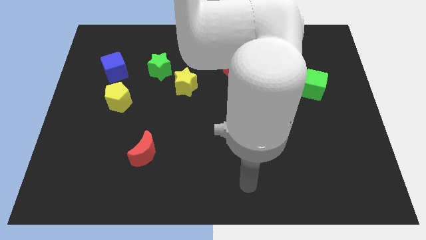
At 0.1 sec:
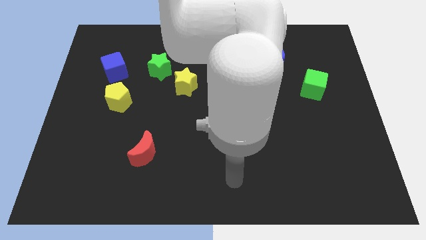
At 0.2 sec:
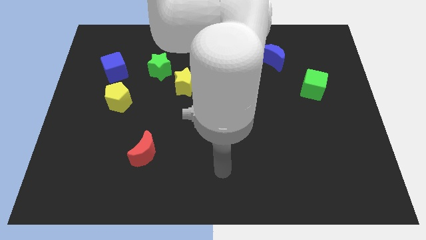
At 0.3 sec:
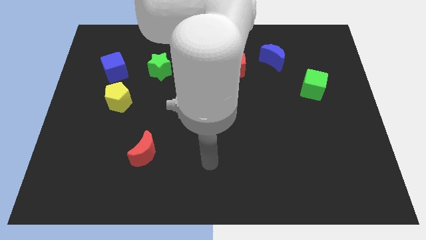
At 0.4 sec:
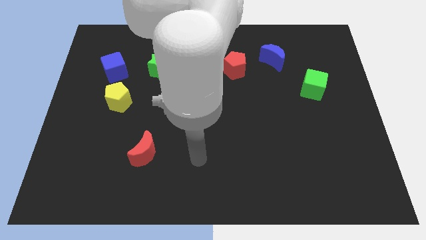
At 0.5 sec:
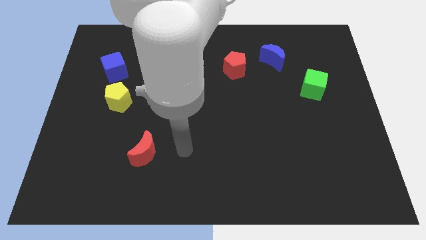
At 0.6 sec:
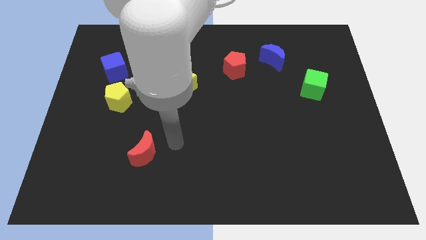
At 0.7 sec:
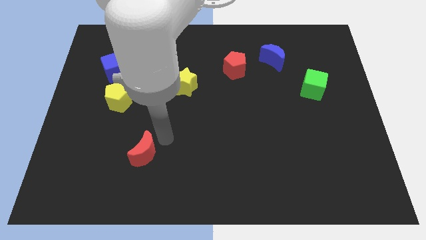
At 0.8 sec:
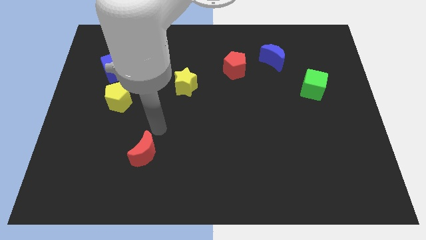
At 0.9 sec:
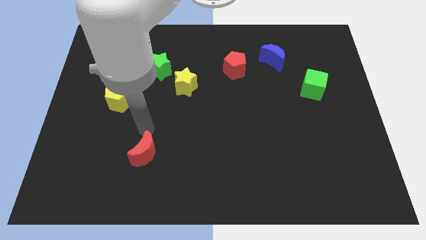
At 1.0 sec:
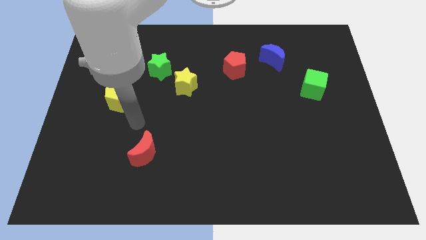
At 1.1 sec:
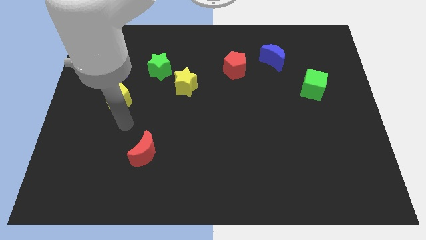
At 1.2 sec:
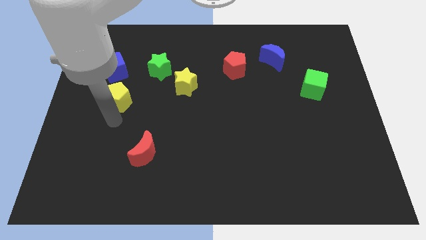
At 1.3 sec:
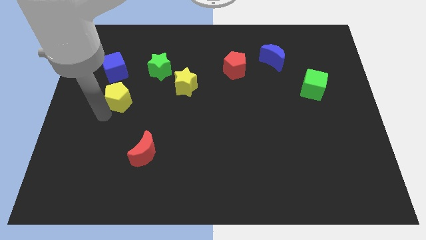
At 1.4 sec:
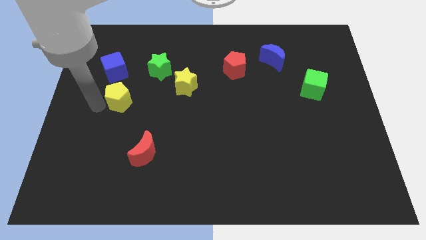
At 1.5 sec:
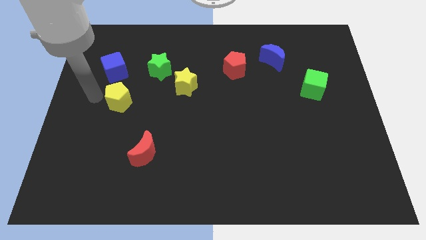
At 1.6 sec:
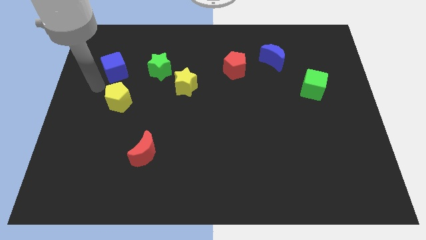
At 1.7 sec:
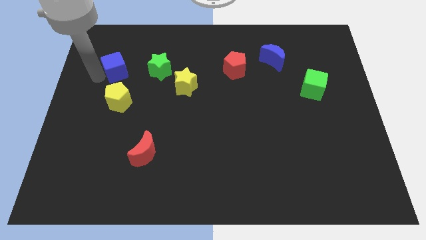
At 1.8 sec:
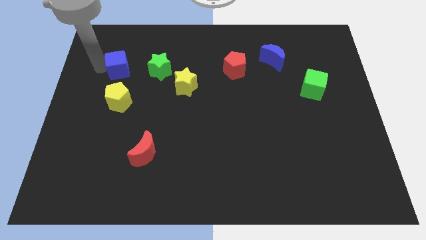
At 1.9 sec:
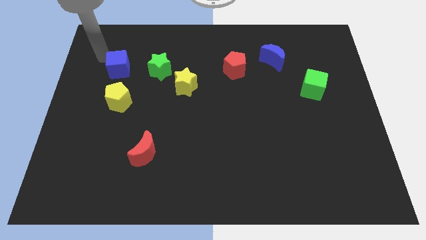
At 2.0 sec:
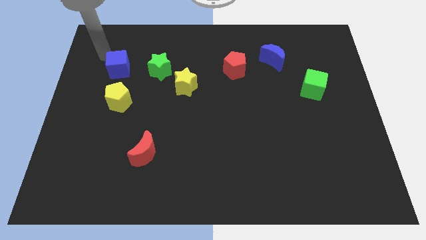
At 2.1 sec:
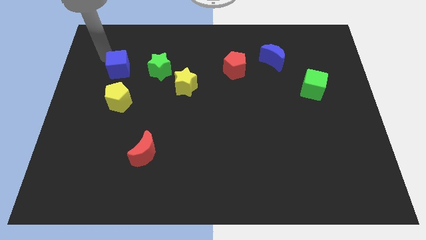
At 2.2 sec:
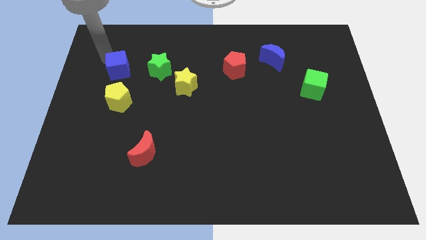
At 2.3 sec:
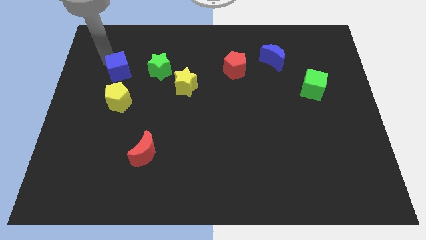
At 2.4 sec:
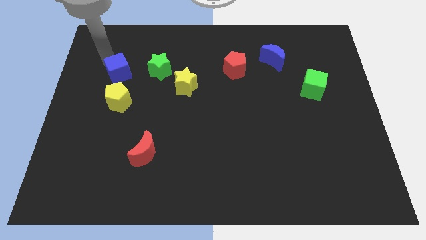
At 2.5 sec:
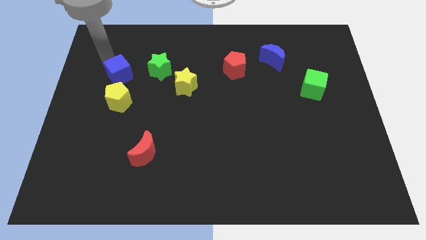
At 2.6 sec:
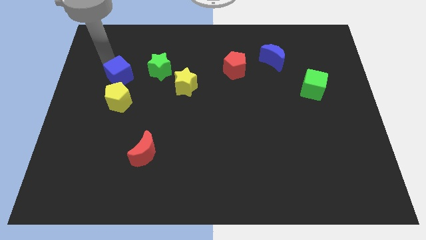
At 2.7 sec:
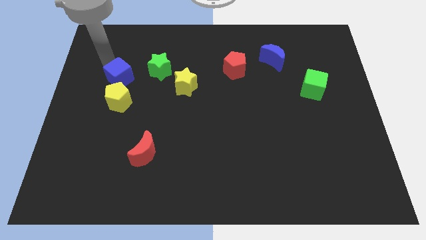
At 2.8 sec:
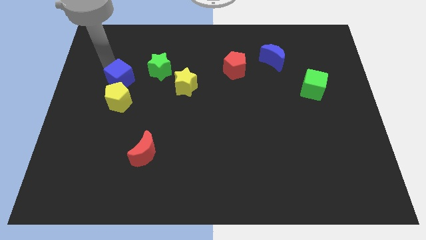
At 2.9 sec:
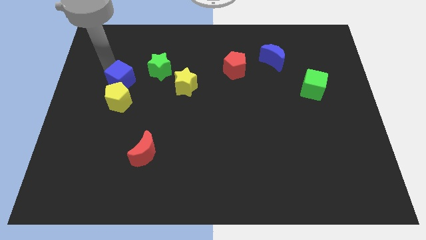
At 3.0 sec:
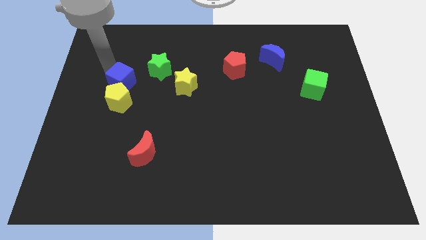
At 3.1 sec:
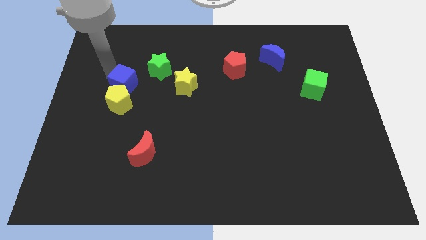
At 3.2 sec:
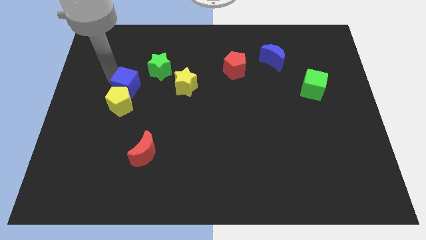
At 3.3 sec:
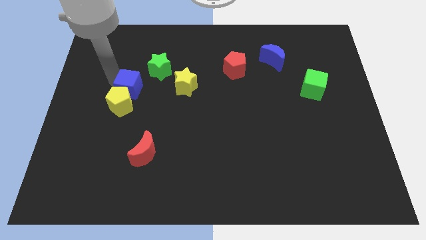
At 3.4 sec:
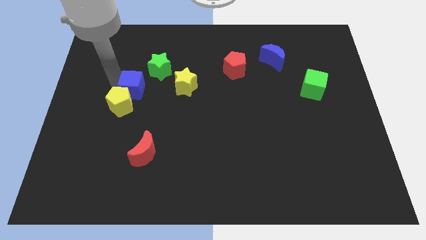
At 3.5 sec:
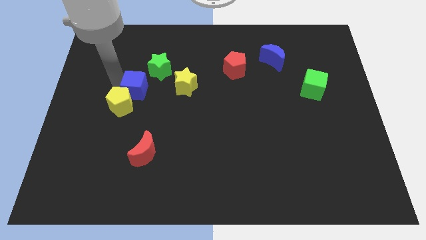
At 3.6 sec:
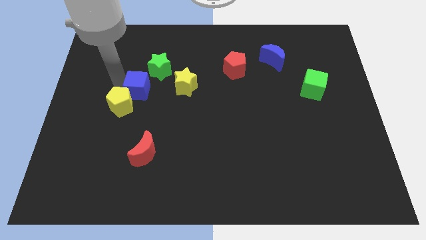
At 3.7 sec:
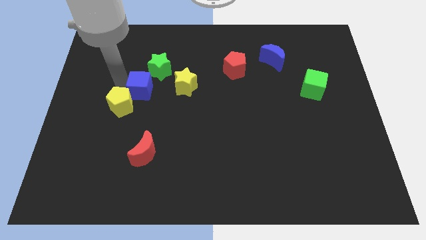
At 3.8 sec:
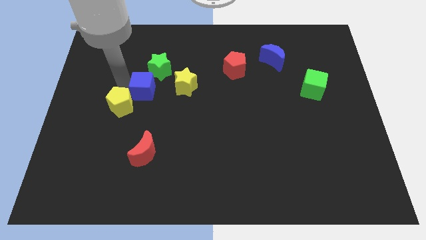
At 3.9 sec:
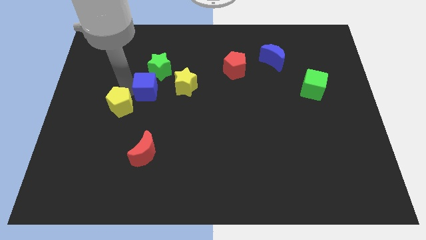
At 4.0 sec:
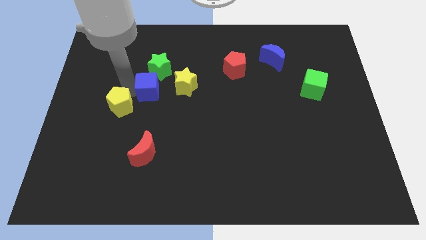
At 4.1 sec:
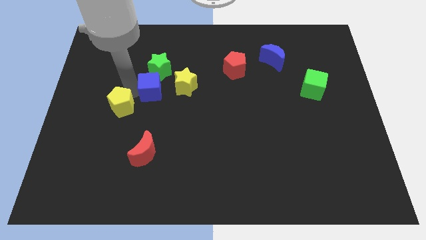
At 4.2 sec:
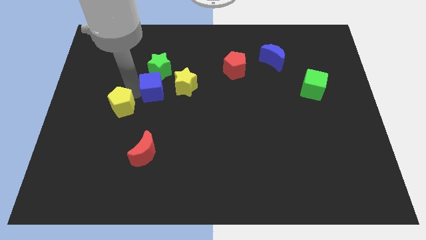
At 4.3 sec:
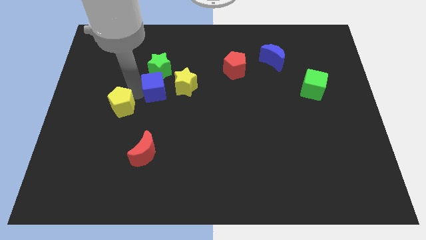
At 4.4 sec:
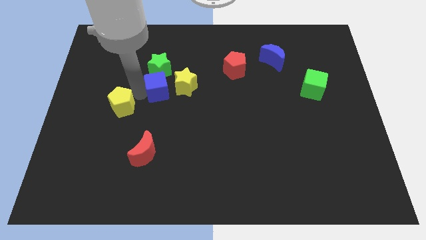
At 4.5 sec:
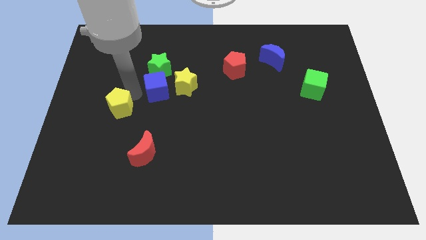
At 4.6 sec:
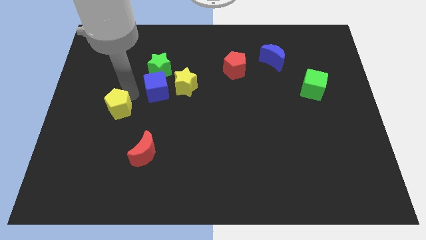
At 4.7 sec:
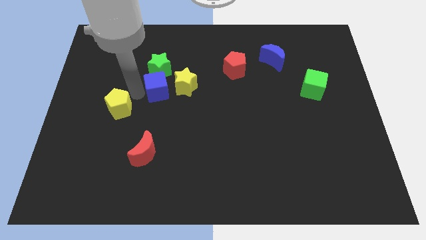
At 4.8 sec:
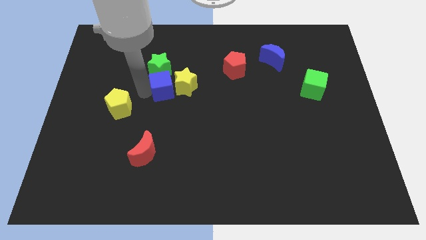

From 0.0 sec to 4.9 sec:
slide the blue cube to the yellow star

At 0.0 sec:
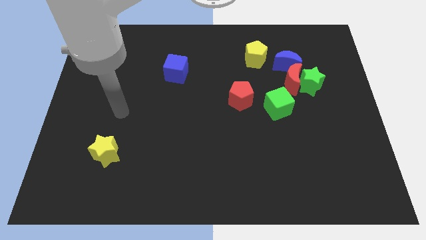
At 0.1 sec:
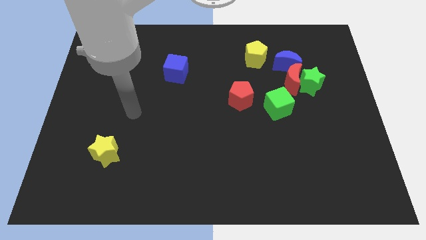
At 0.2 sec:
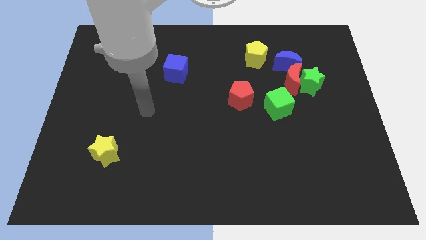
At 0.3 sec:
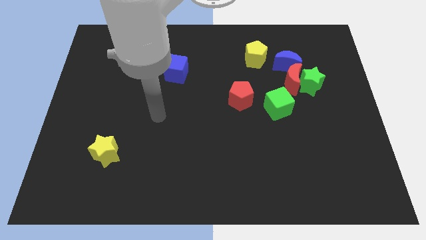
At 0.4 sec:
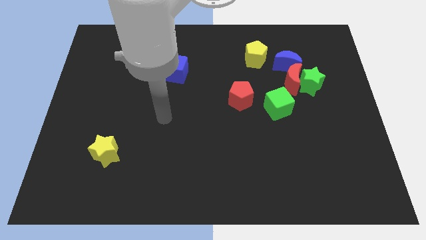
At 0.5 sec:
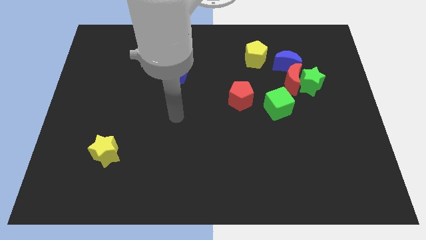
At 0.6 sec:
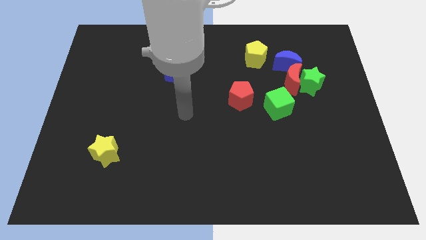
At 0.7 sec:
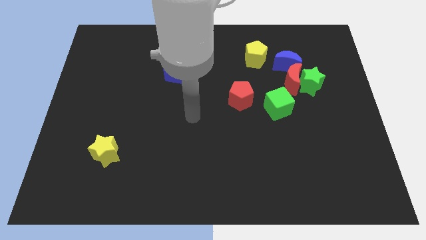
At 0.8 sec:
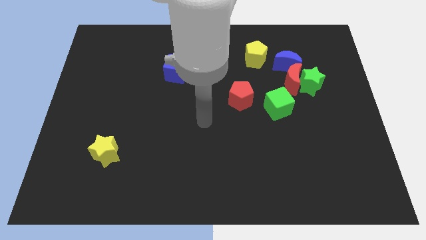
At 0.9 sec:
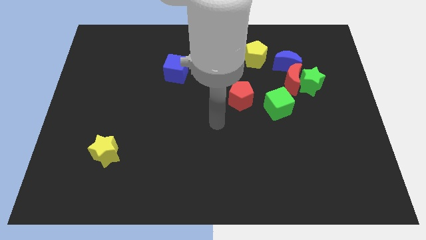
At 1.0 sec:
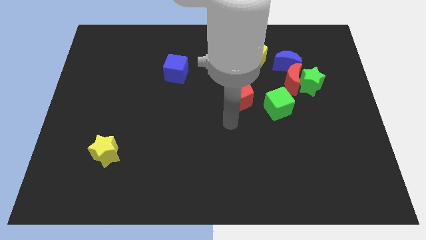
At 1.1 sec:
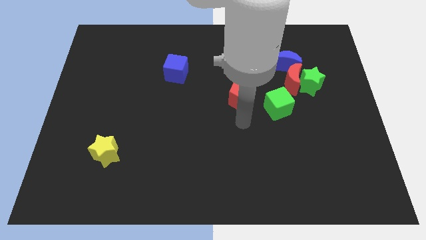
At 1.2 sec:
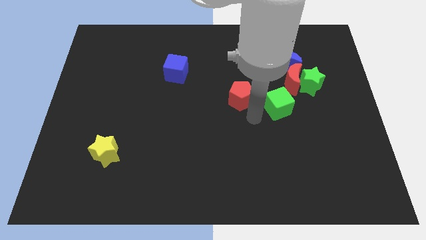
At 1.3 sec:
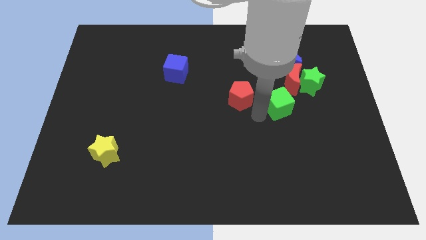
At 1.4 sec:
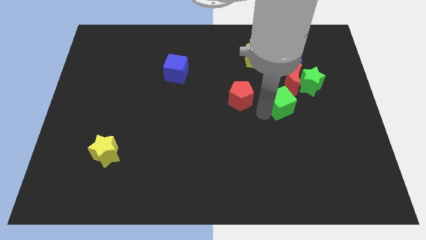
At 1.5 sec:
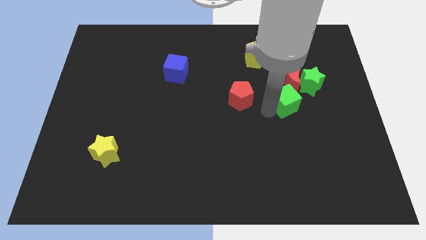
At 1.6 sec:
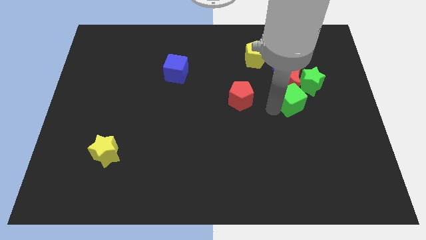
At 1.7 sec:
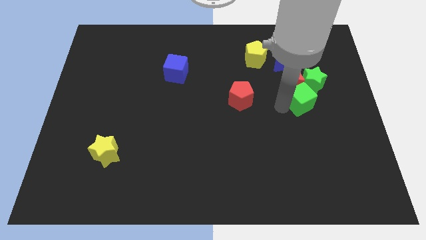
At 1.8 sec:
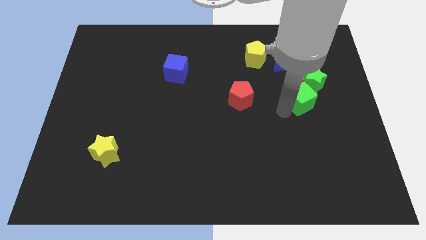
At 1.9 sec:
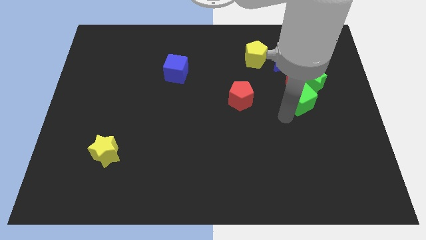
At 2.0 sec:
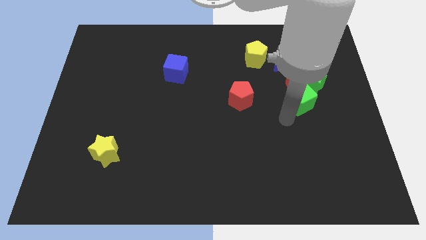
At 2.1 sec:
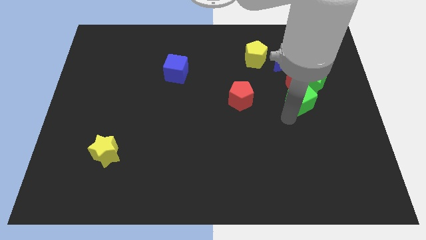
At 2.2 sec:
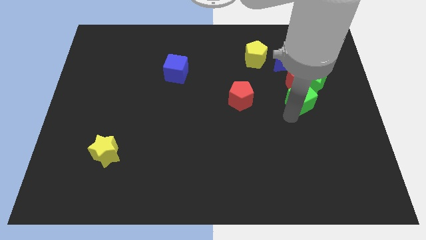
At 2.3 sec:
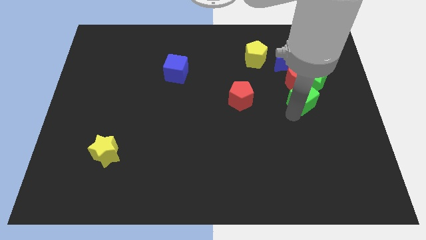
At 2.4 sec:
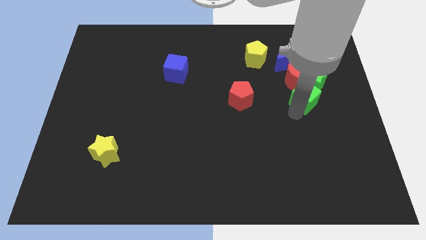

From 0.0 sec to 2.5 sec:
slide the green cube close to the green star

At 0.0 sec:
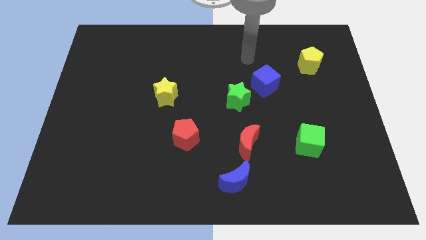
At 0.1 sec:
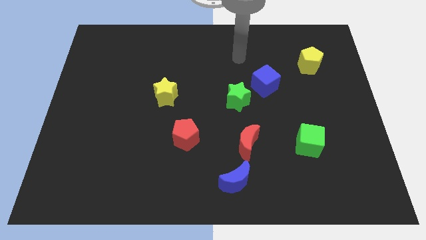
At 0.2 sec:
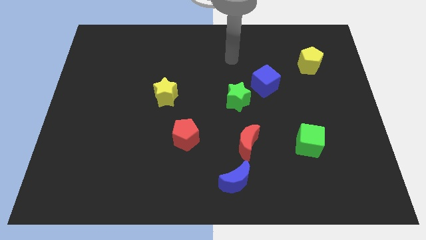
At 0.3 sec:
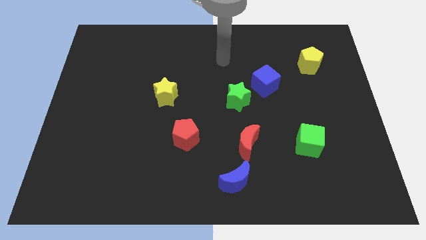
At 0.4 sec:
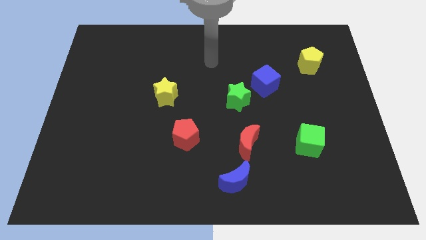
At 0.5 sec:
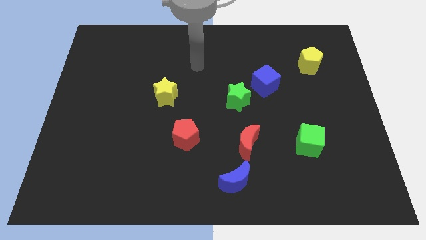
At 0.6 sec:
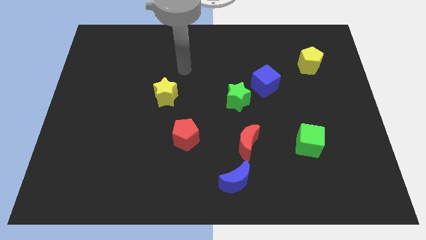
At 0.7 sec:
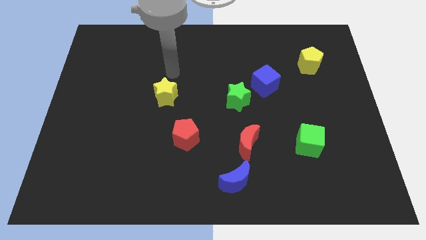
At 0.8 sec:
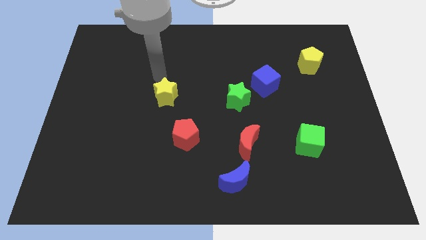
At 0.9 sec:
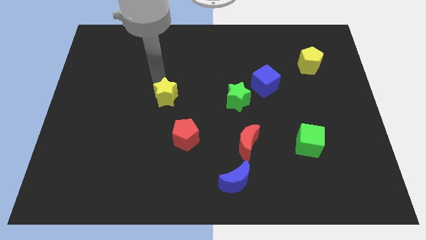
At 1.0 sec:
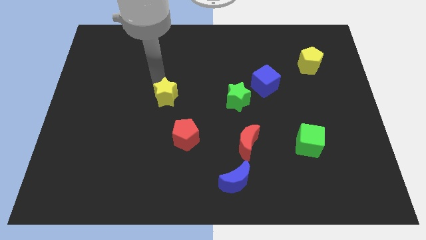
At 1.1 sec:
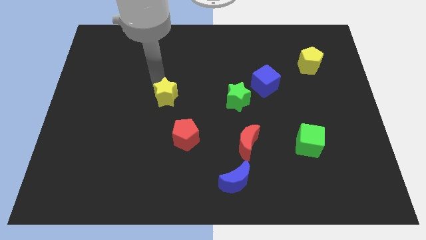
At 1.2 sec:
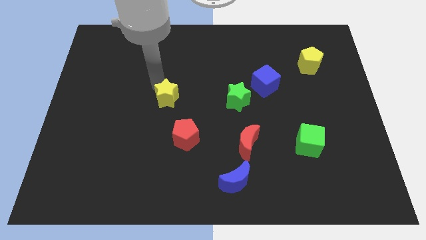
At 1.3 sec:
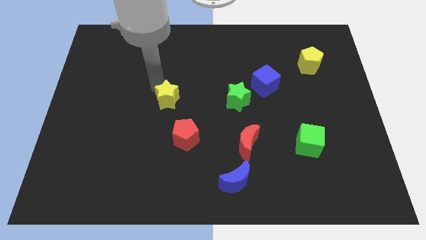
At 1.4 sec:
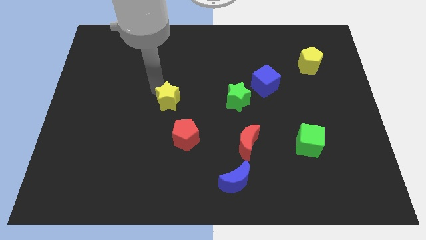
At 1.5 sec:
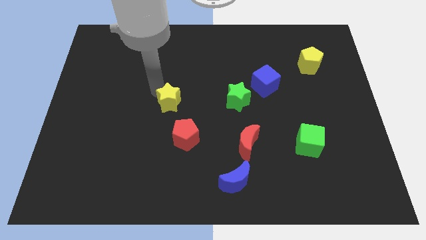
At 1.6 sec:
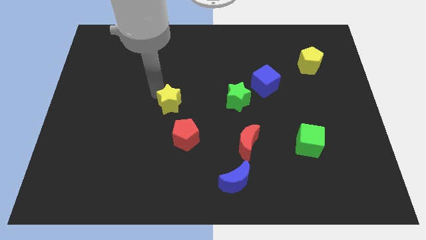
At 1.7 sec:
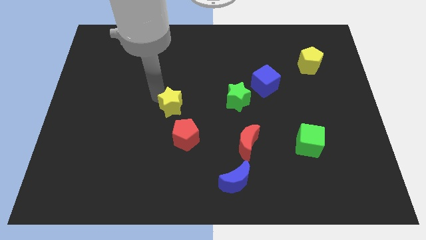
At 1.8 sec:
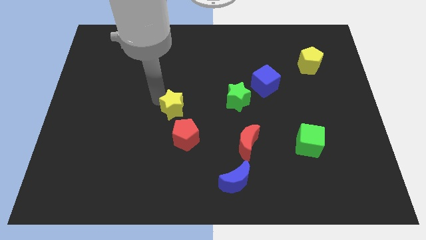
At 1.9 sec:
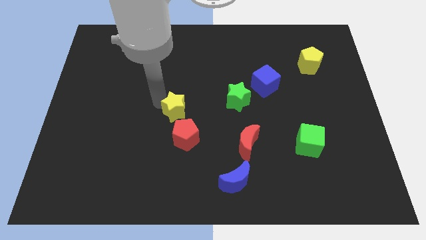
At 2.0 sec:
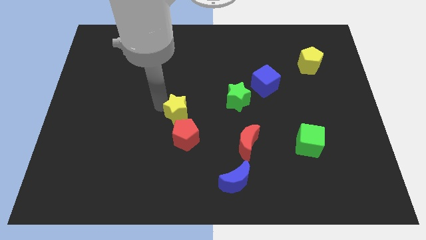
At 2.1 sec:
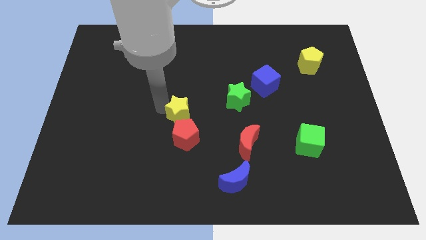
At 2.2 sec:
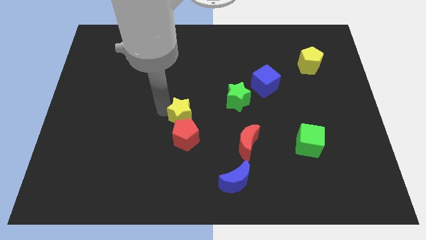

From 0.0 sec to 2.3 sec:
put the yellow star close to the red pentagon
